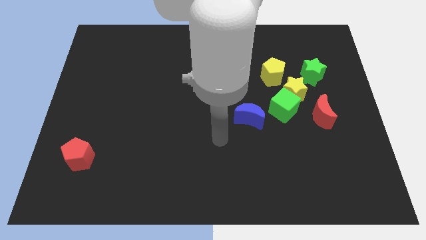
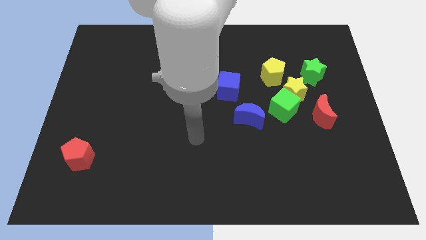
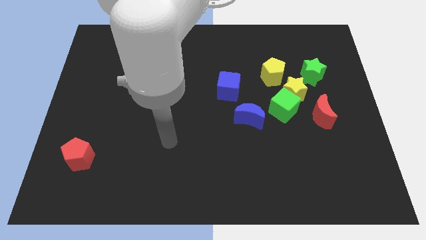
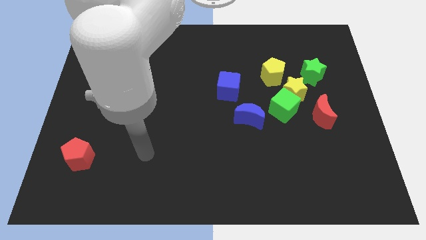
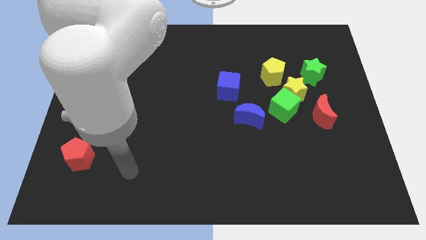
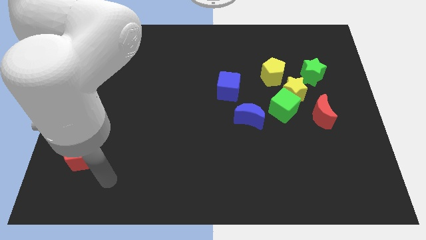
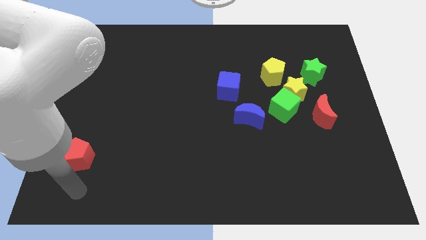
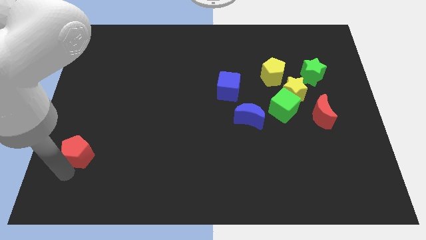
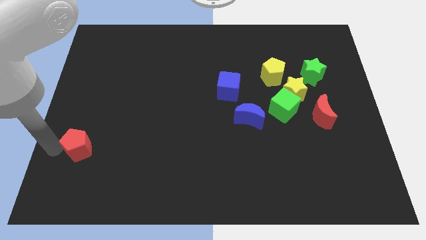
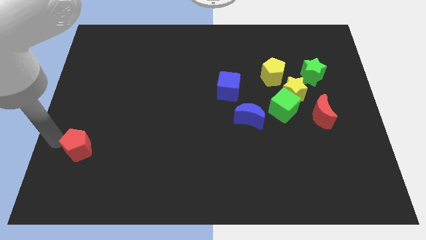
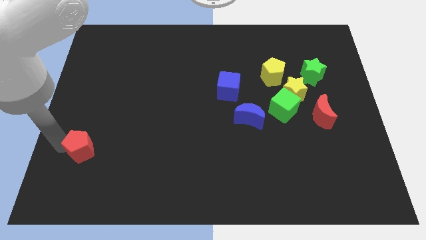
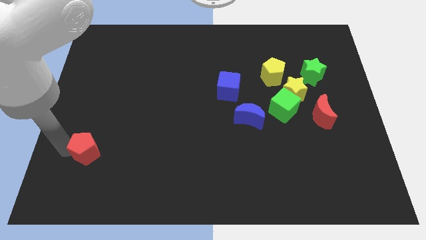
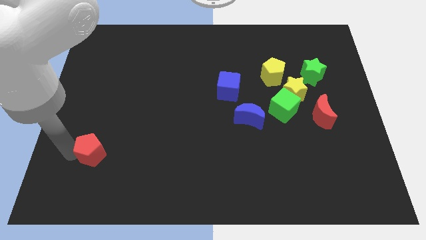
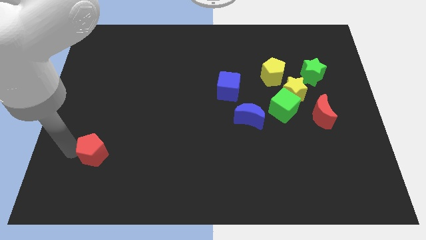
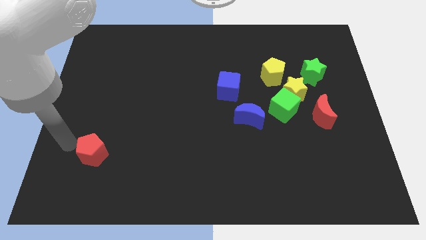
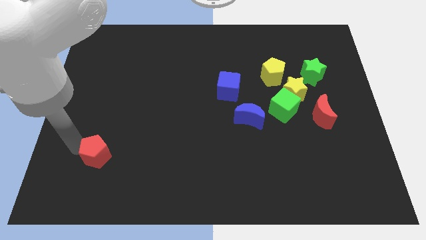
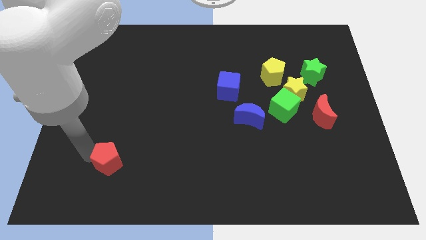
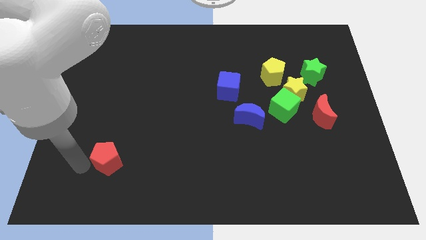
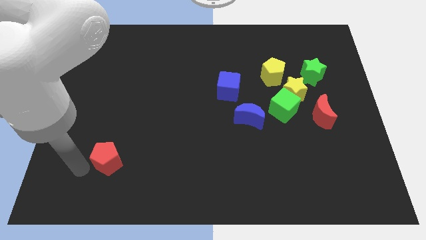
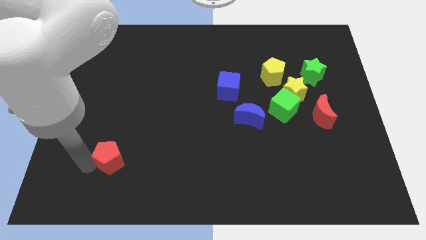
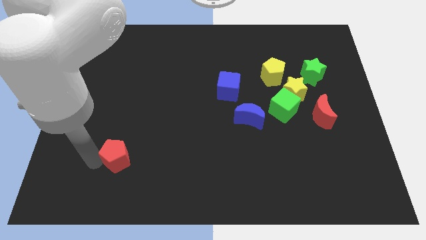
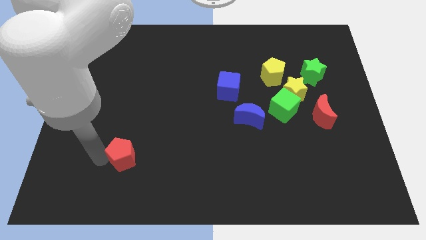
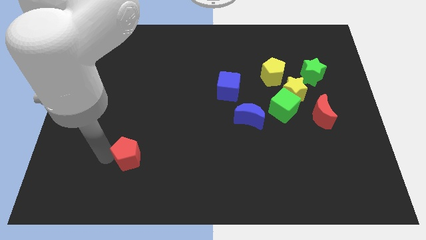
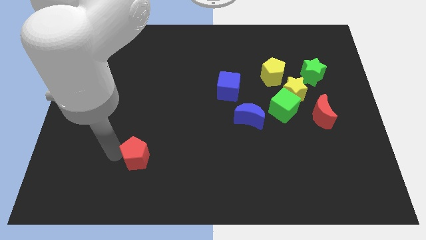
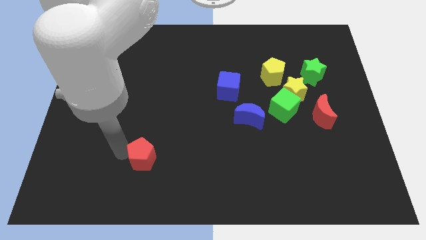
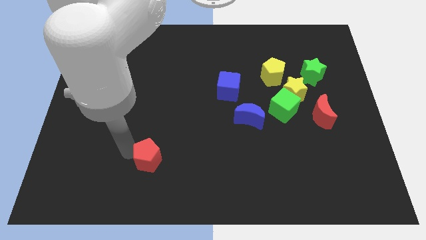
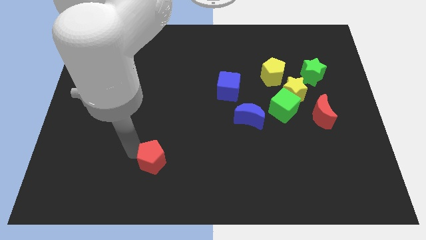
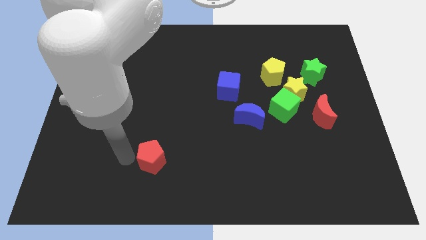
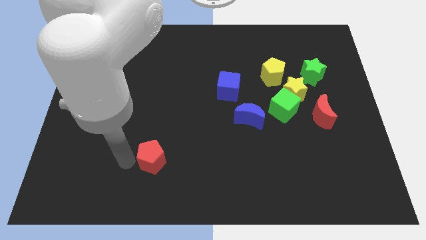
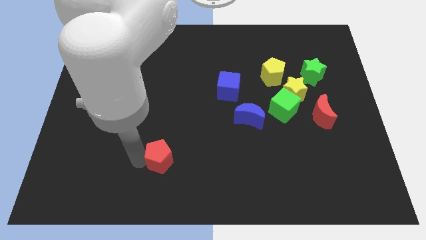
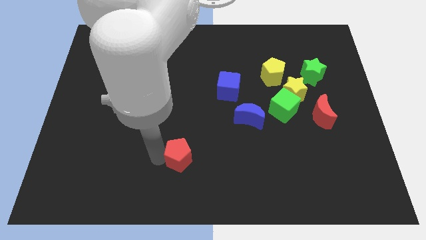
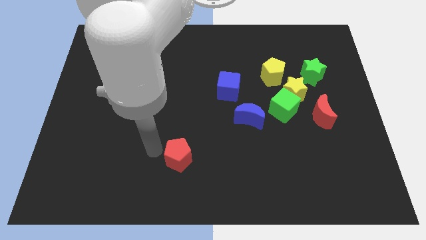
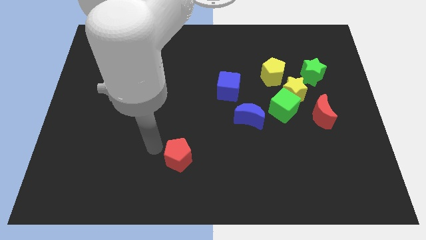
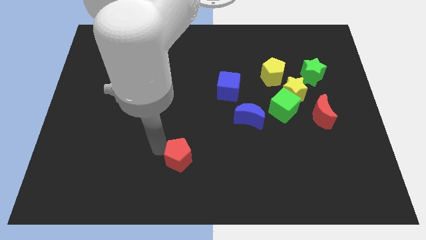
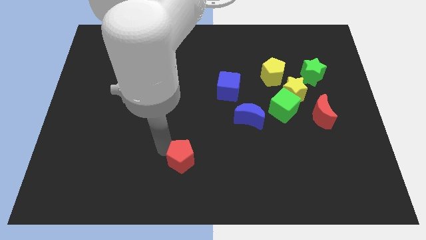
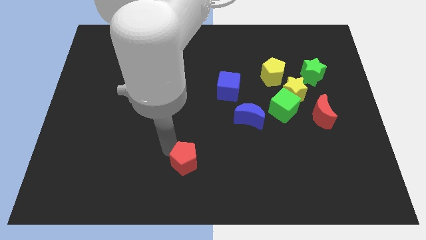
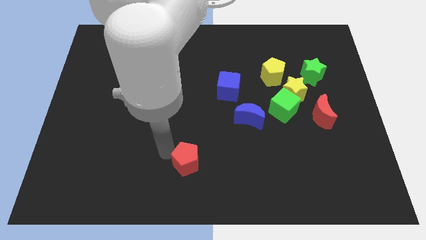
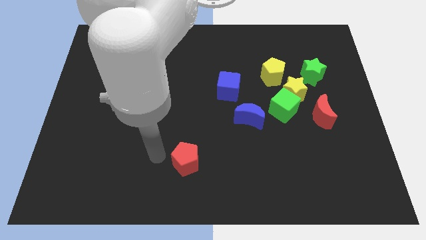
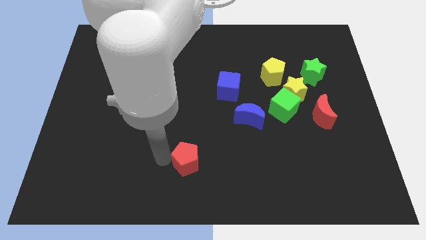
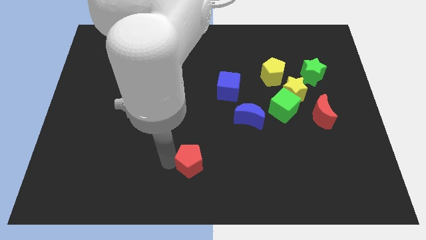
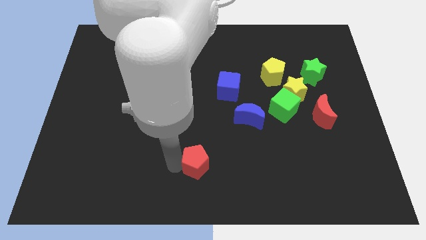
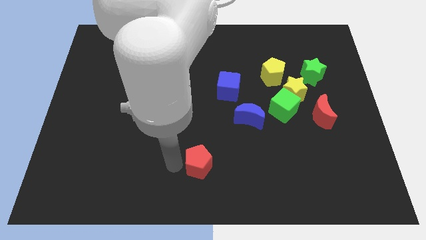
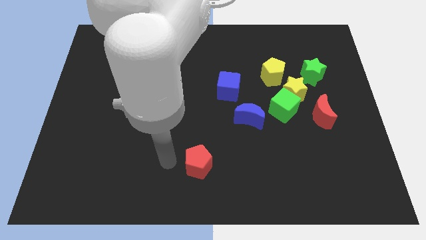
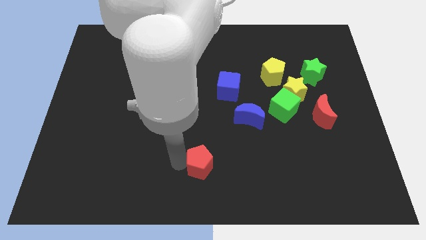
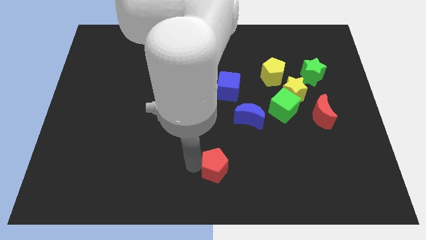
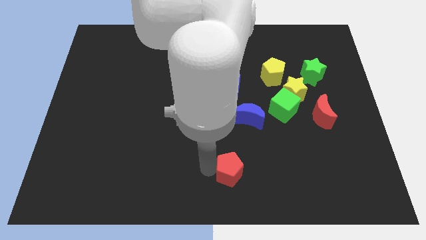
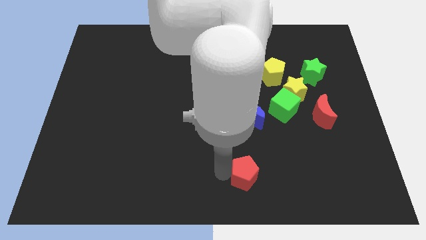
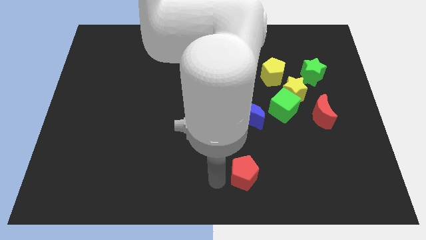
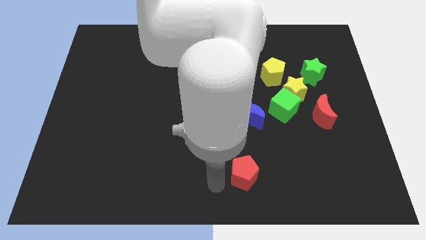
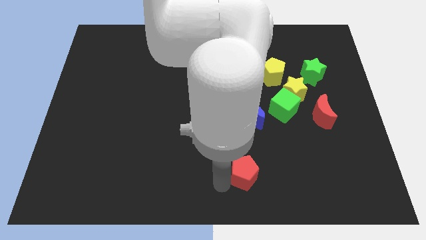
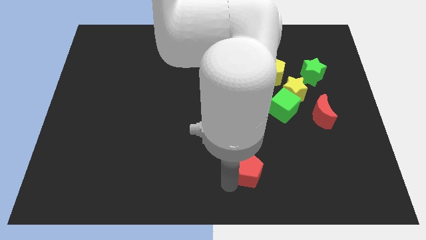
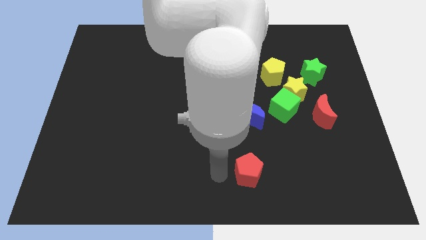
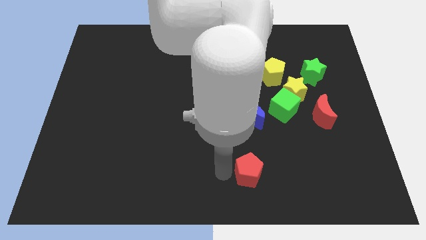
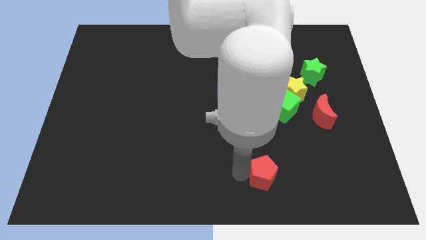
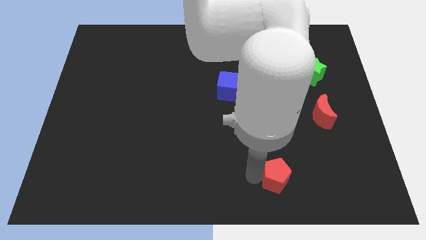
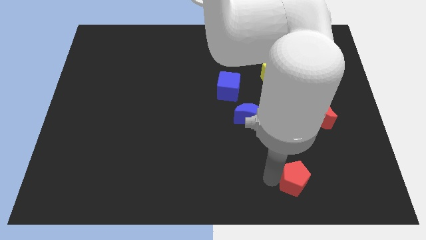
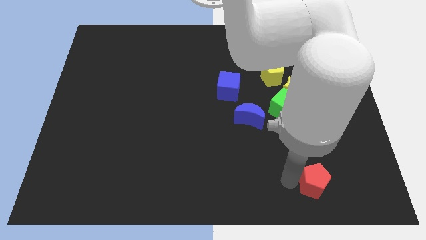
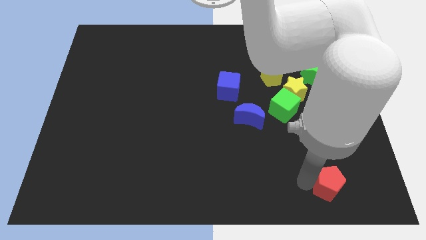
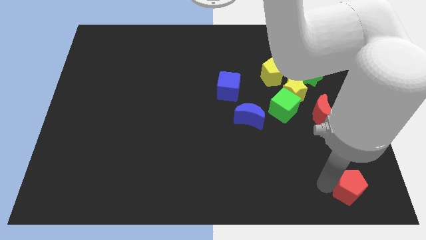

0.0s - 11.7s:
move the red pentagon to the lower right corner
